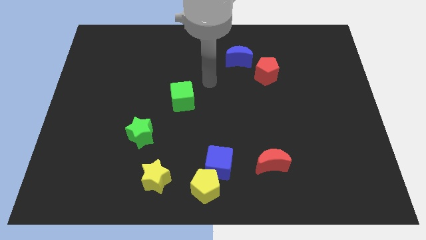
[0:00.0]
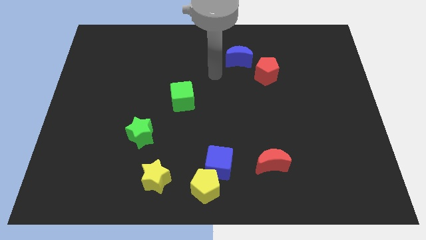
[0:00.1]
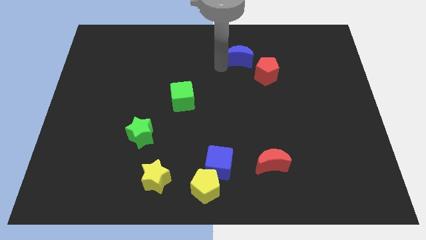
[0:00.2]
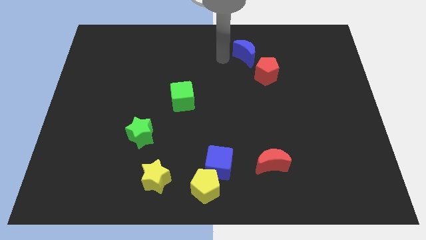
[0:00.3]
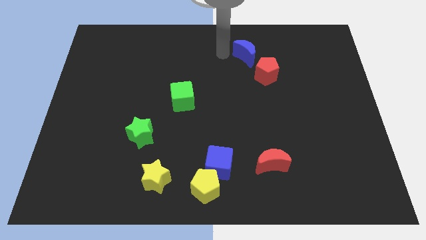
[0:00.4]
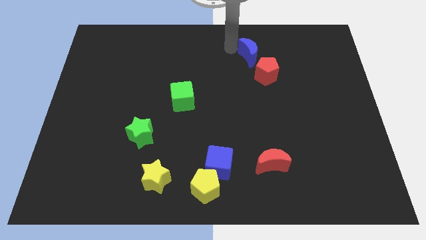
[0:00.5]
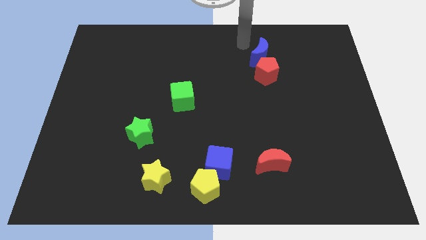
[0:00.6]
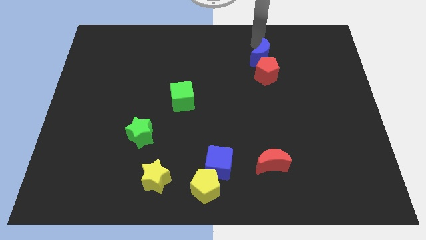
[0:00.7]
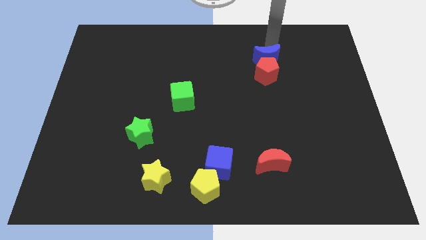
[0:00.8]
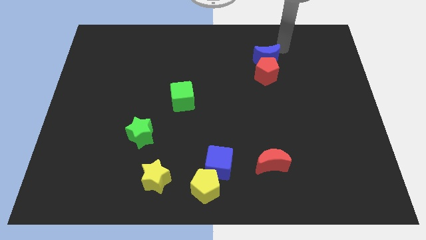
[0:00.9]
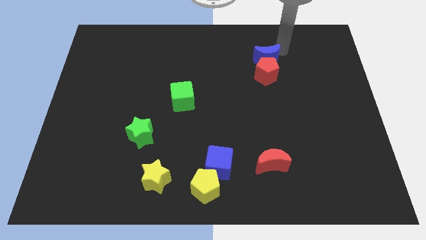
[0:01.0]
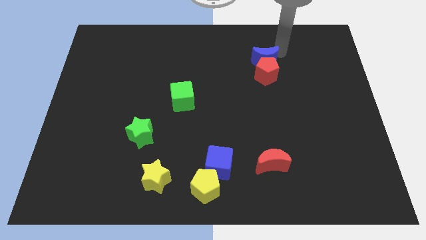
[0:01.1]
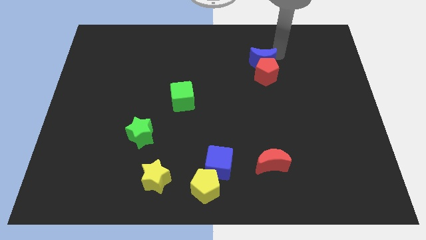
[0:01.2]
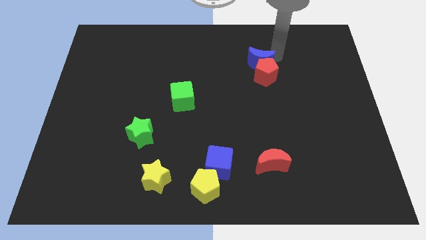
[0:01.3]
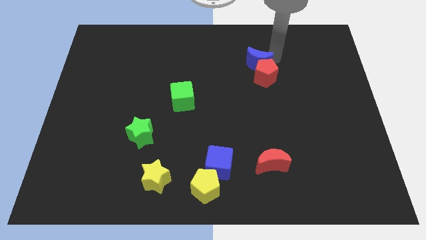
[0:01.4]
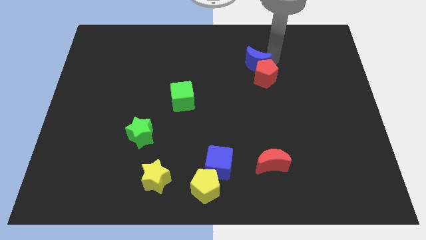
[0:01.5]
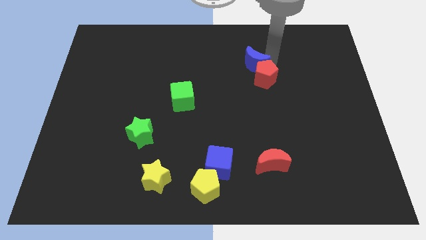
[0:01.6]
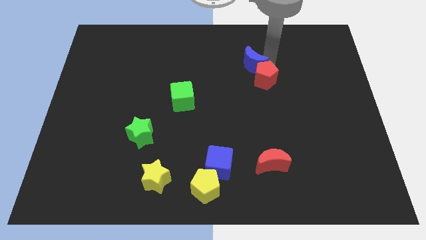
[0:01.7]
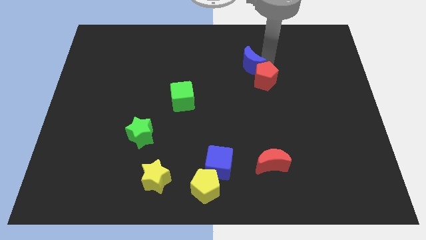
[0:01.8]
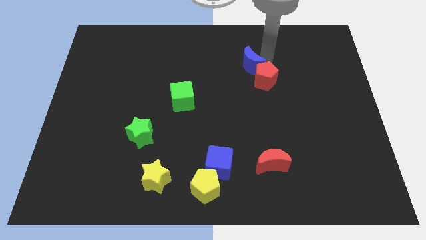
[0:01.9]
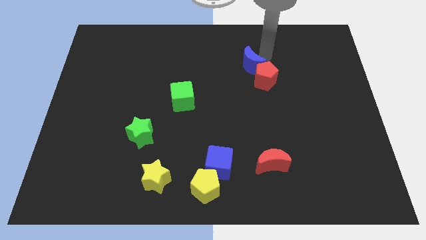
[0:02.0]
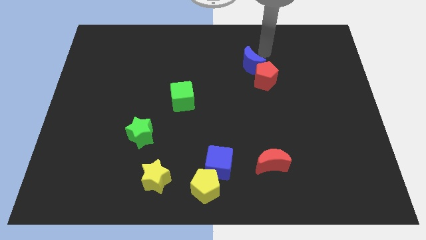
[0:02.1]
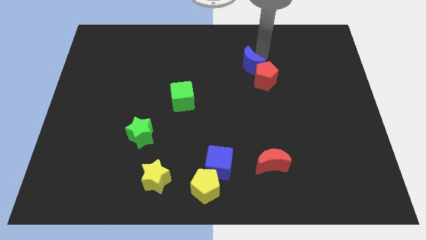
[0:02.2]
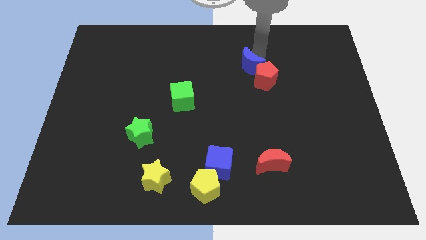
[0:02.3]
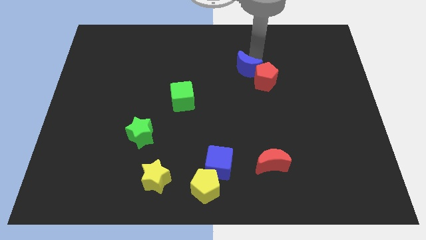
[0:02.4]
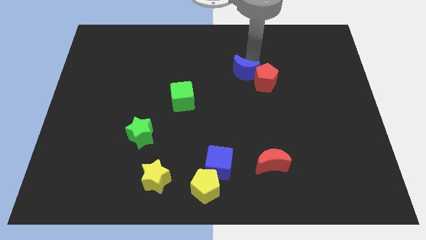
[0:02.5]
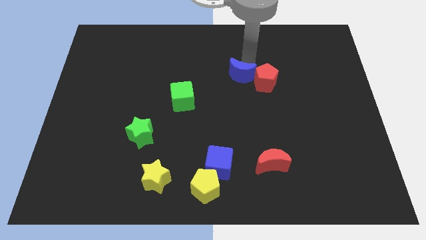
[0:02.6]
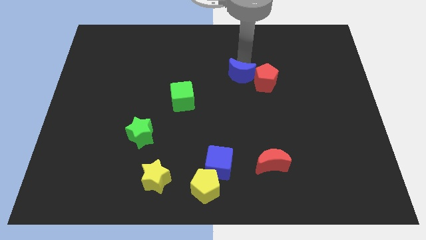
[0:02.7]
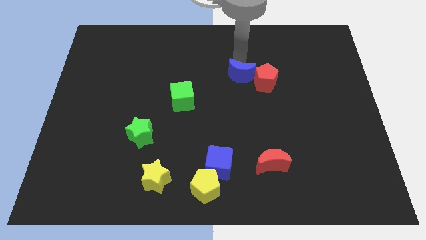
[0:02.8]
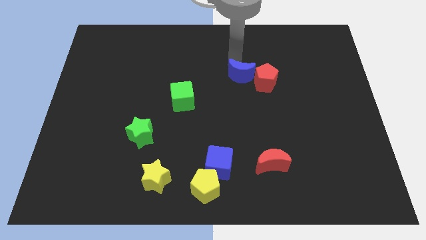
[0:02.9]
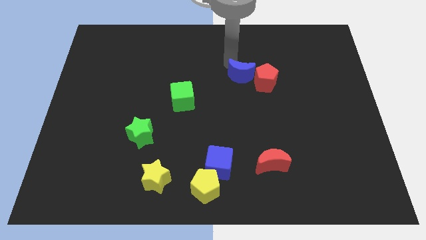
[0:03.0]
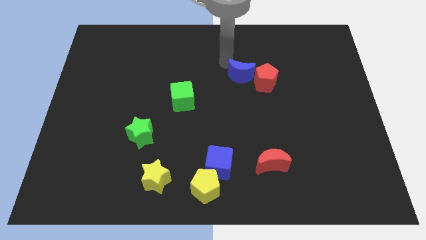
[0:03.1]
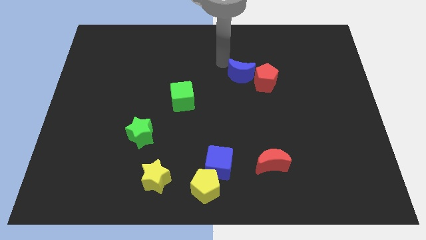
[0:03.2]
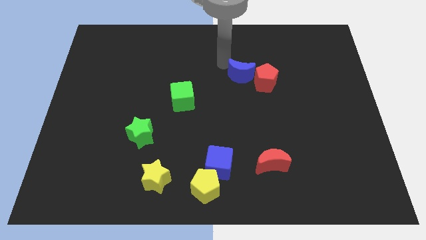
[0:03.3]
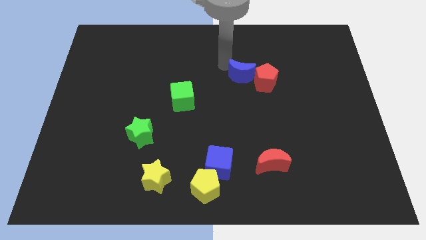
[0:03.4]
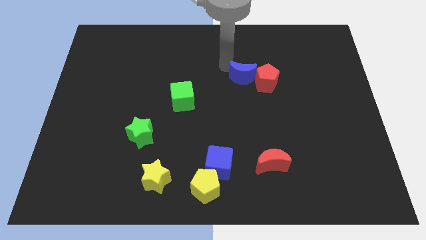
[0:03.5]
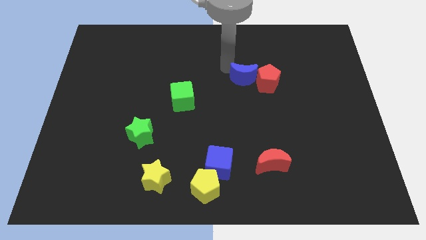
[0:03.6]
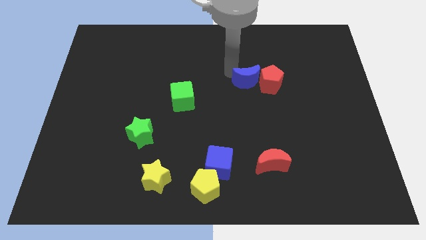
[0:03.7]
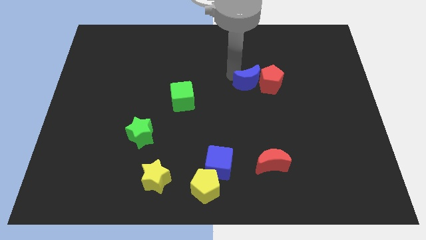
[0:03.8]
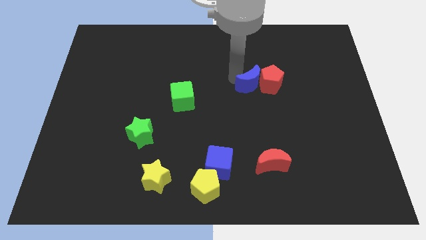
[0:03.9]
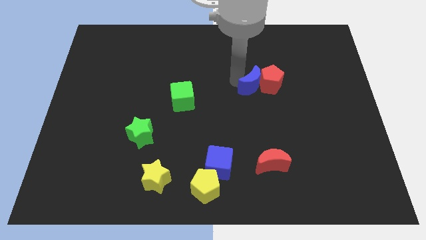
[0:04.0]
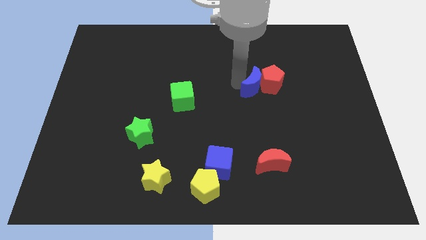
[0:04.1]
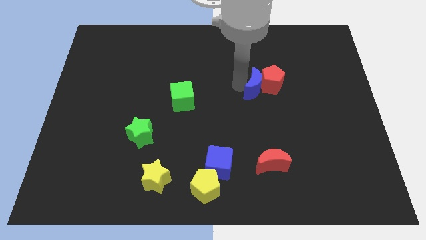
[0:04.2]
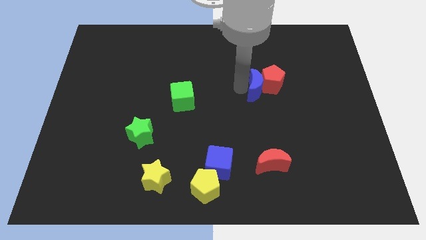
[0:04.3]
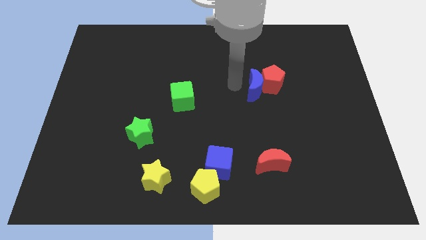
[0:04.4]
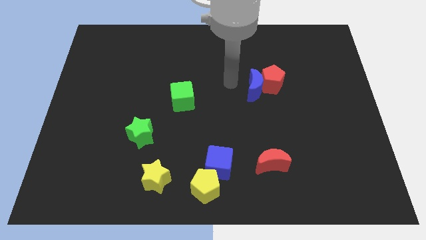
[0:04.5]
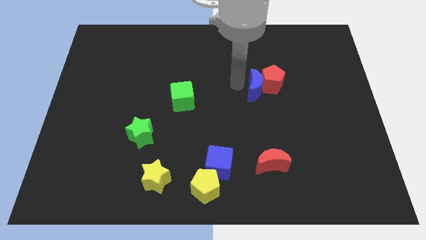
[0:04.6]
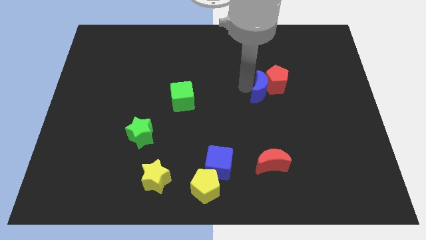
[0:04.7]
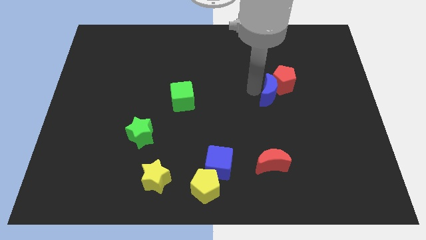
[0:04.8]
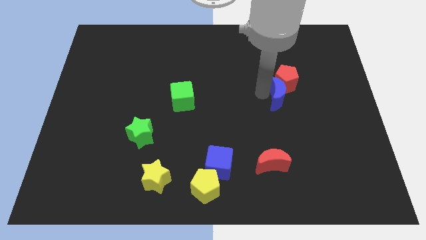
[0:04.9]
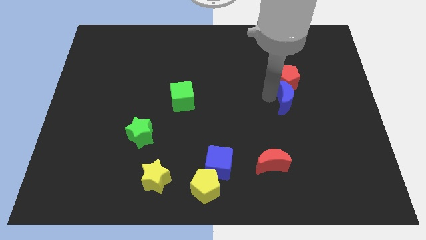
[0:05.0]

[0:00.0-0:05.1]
move the blue moon to the bottom right of the red pentagon

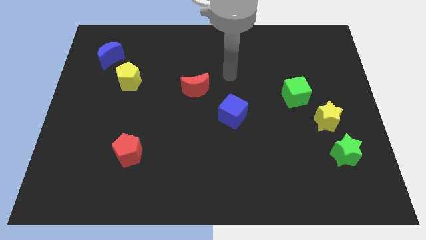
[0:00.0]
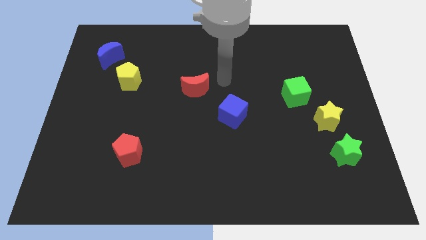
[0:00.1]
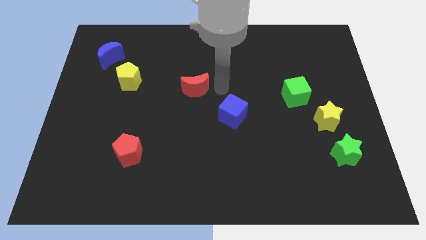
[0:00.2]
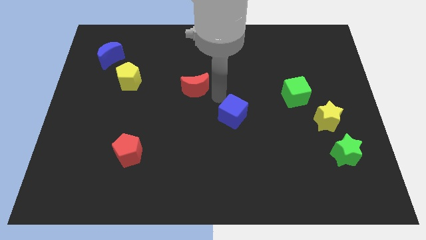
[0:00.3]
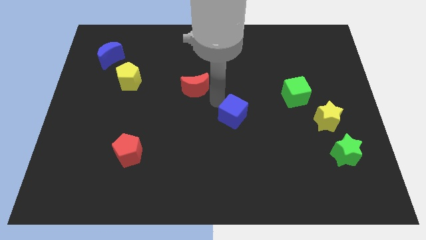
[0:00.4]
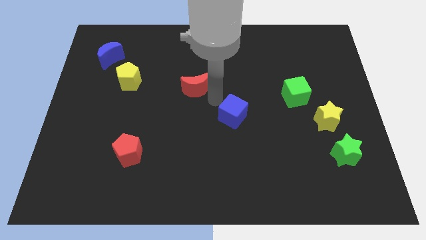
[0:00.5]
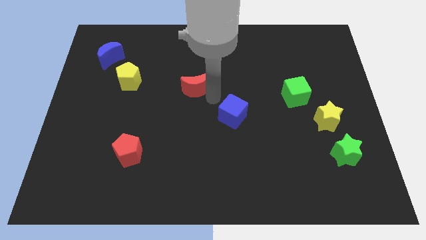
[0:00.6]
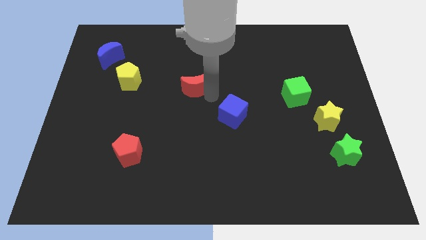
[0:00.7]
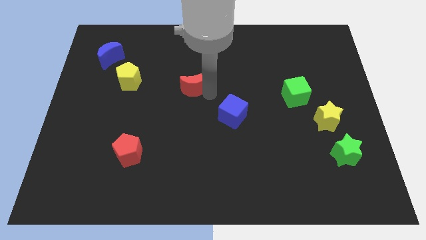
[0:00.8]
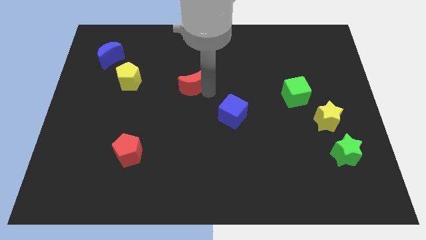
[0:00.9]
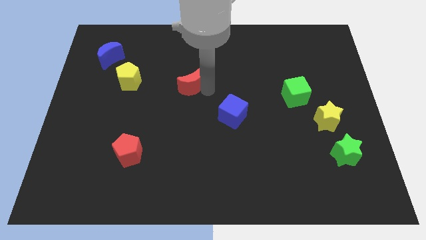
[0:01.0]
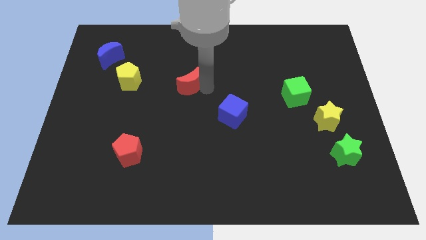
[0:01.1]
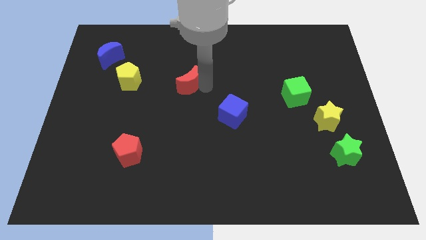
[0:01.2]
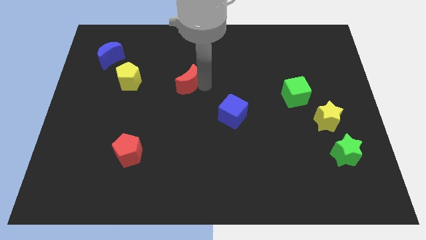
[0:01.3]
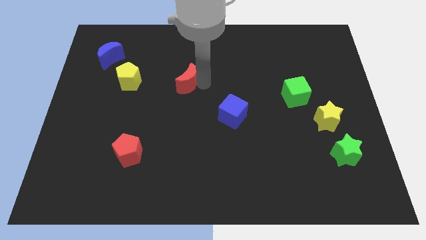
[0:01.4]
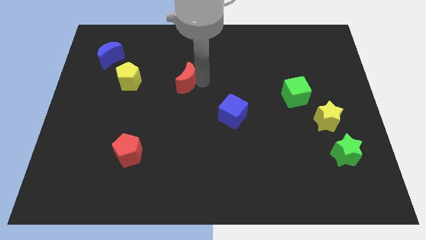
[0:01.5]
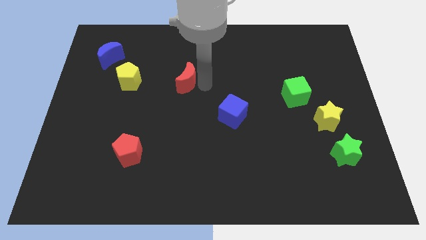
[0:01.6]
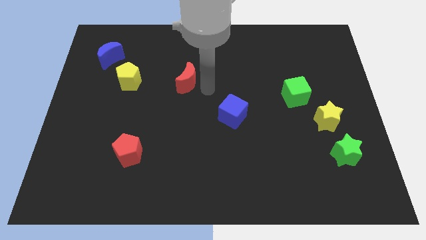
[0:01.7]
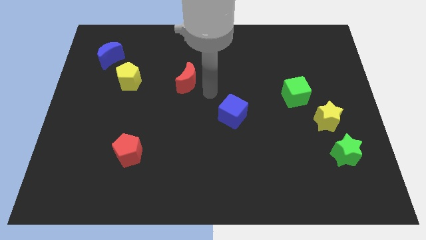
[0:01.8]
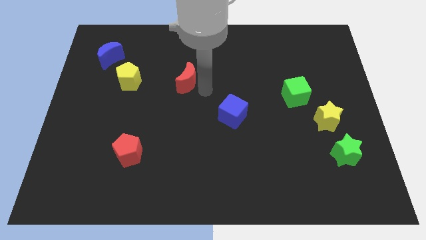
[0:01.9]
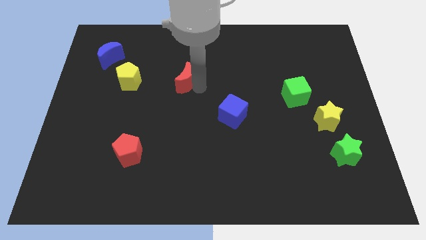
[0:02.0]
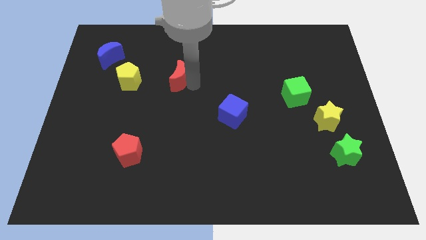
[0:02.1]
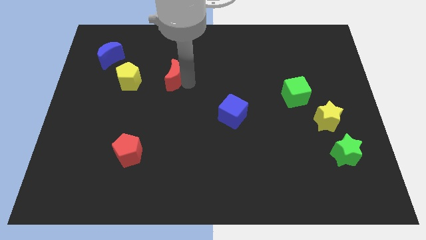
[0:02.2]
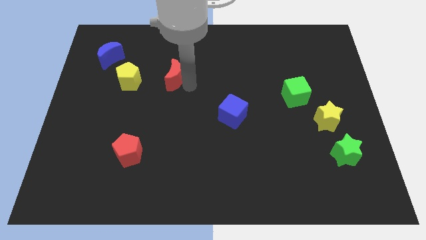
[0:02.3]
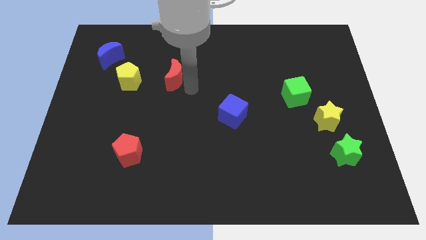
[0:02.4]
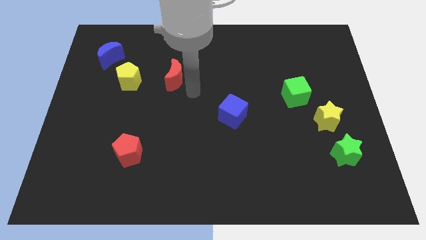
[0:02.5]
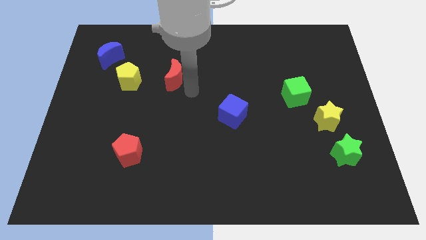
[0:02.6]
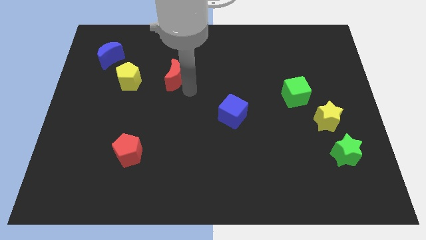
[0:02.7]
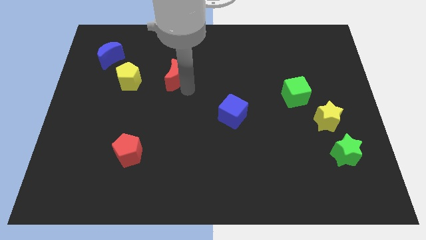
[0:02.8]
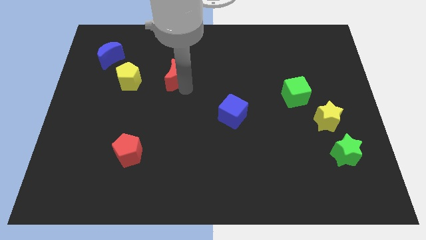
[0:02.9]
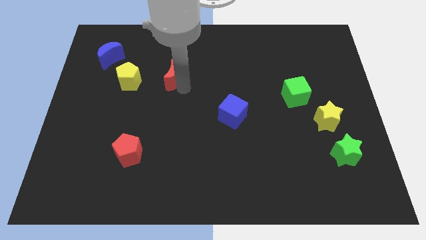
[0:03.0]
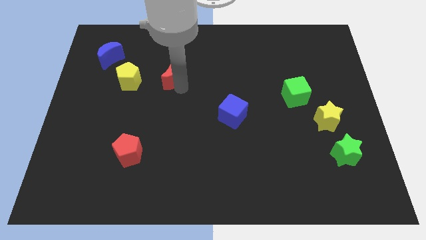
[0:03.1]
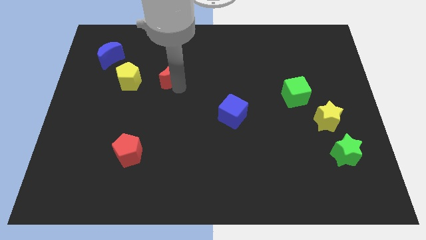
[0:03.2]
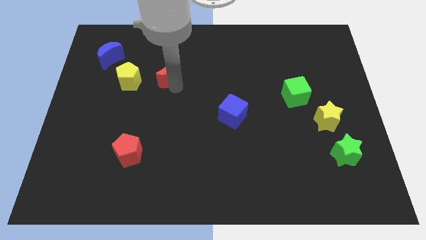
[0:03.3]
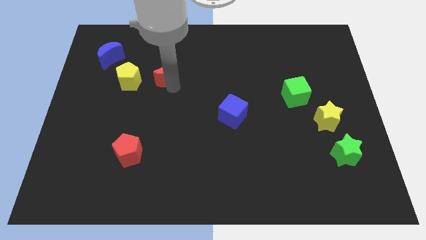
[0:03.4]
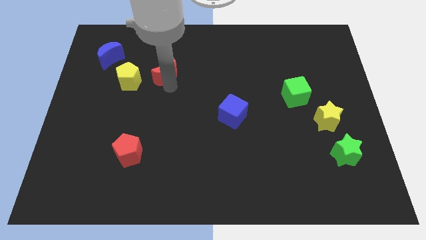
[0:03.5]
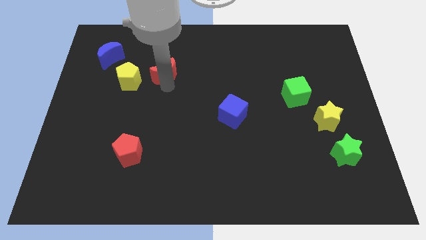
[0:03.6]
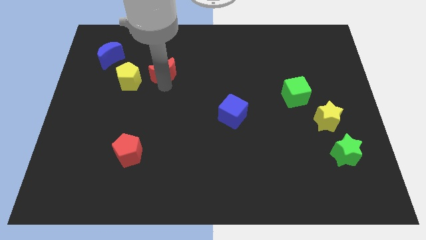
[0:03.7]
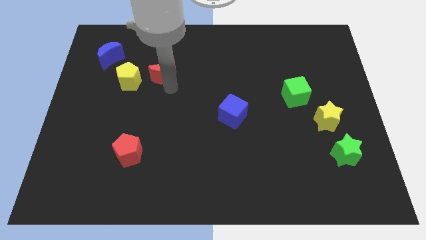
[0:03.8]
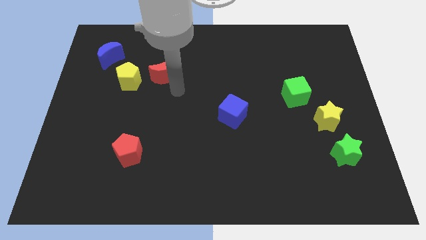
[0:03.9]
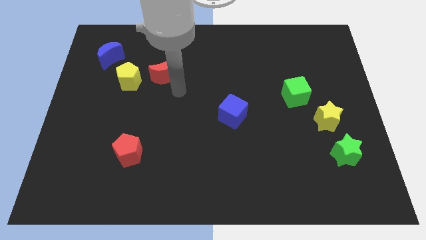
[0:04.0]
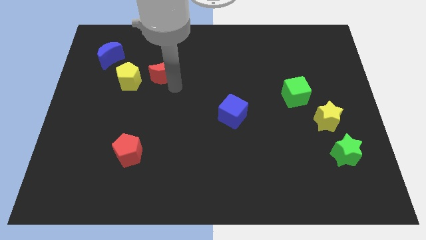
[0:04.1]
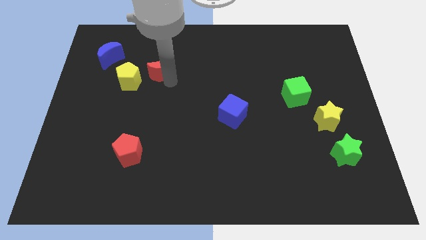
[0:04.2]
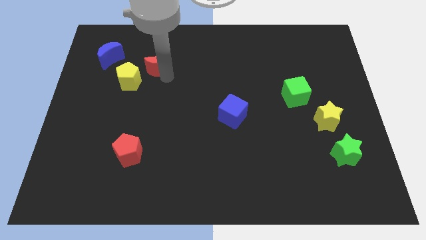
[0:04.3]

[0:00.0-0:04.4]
slide the red moon right of the blue moon
